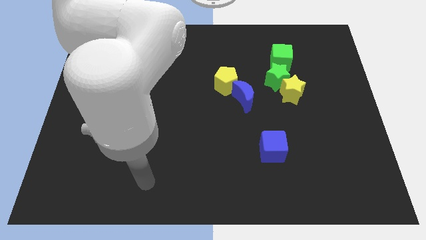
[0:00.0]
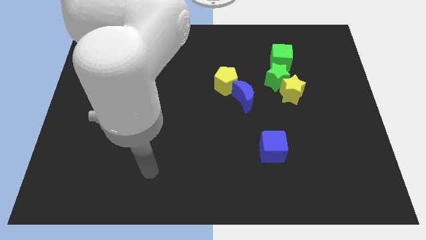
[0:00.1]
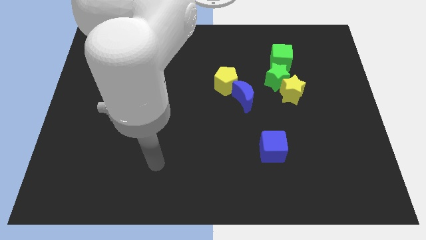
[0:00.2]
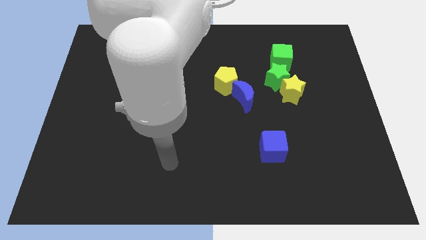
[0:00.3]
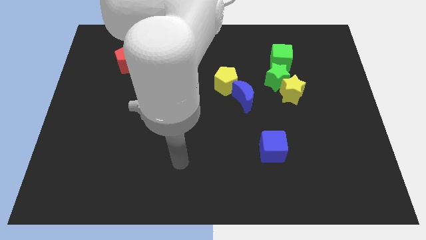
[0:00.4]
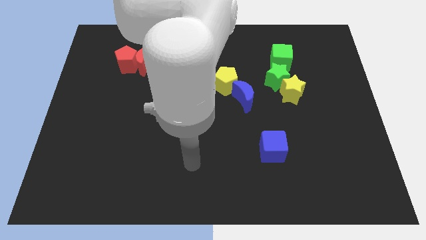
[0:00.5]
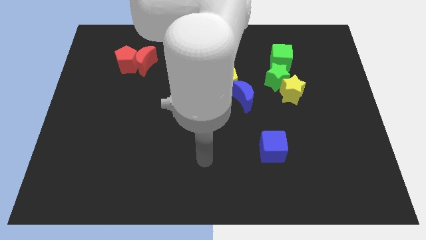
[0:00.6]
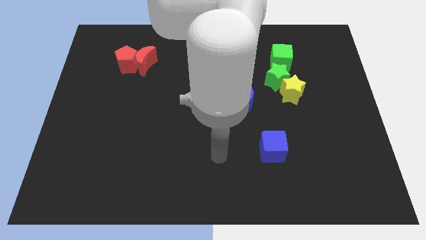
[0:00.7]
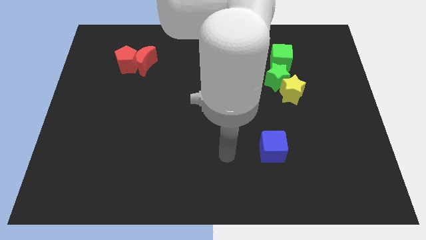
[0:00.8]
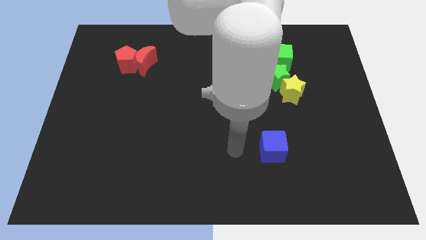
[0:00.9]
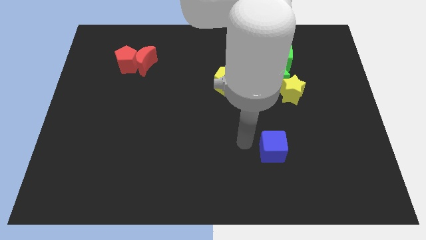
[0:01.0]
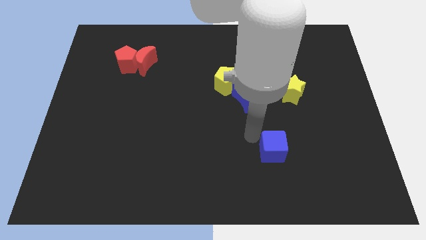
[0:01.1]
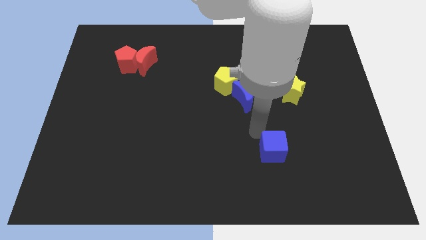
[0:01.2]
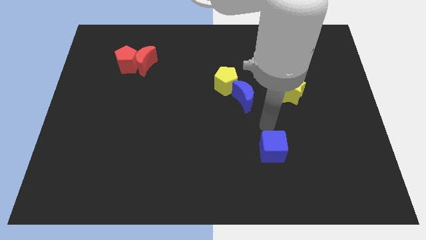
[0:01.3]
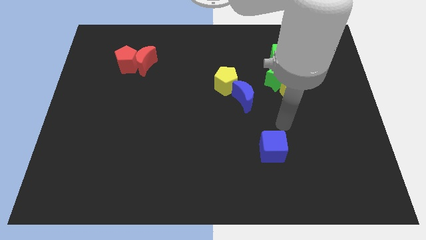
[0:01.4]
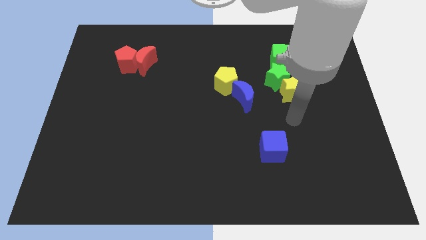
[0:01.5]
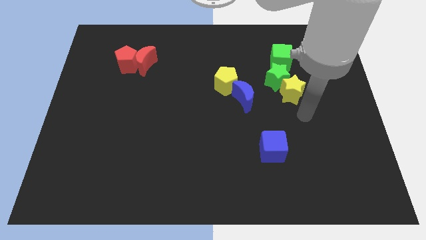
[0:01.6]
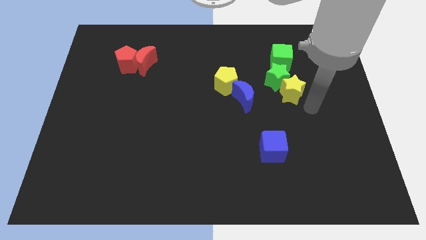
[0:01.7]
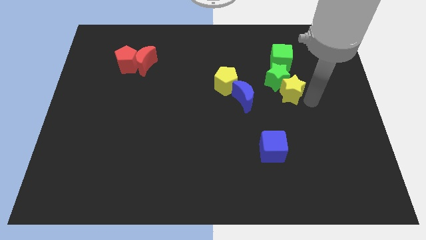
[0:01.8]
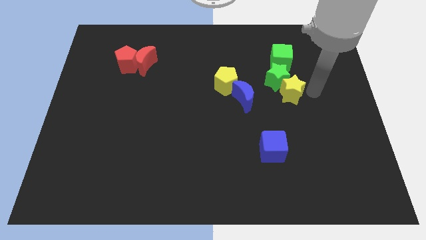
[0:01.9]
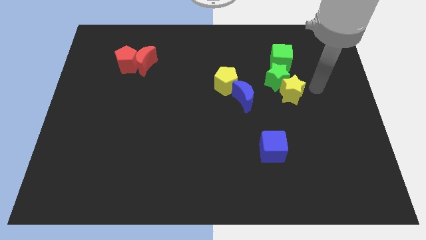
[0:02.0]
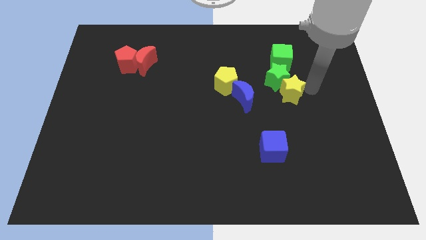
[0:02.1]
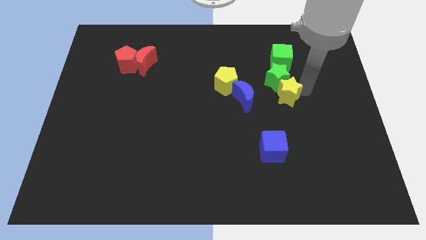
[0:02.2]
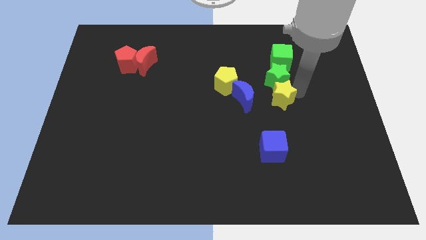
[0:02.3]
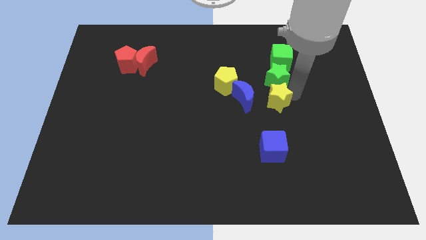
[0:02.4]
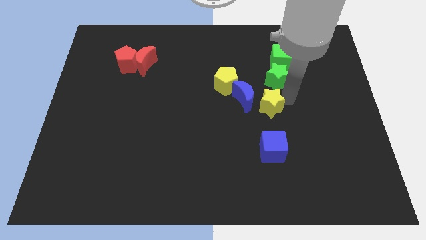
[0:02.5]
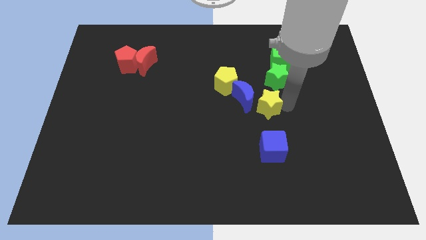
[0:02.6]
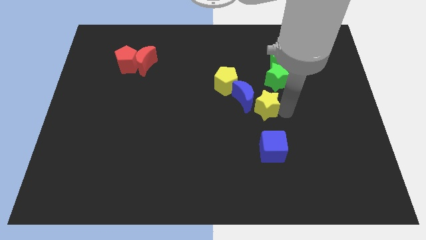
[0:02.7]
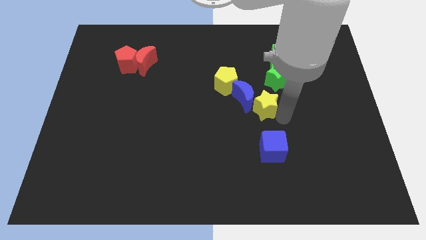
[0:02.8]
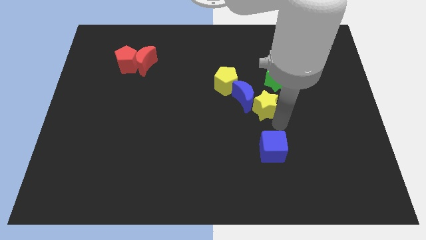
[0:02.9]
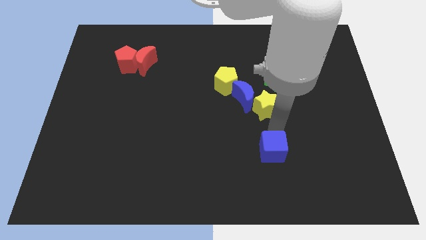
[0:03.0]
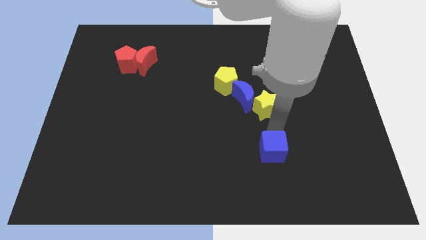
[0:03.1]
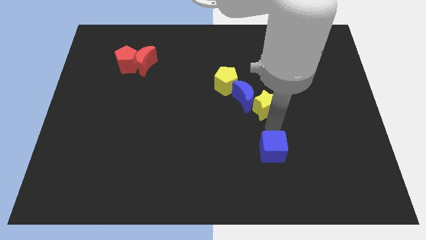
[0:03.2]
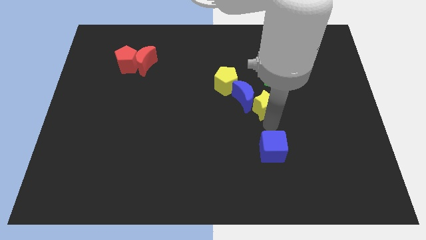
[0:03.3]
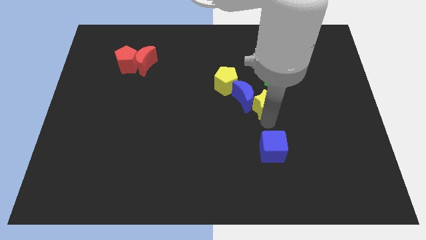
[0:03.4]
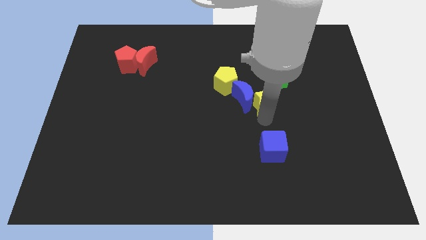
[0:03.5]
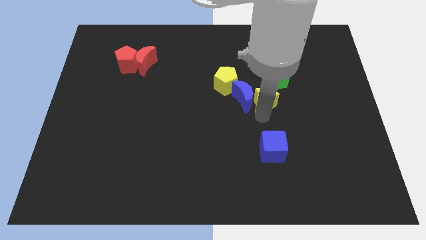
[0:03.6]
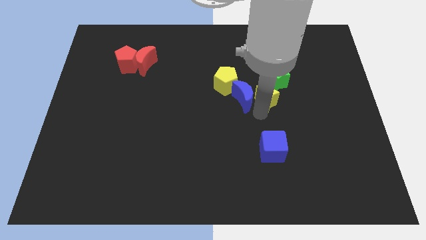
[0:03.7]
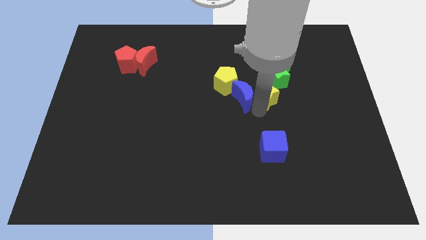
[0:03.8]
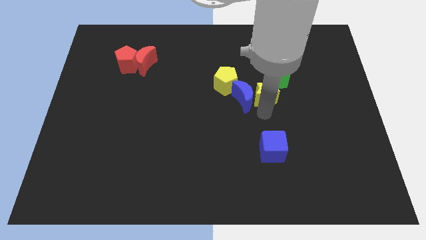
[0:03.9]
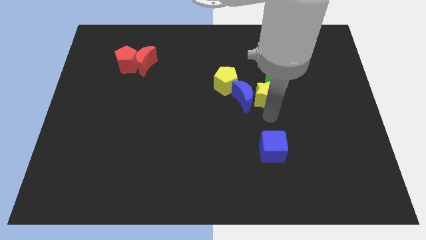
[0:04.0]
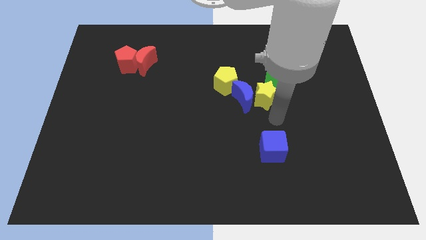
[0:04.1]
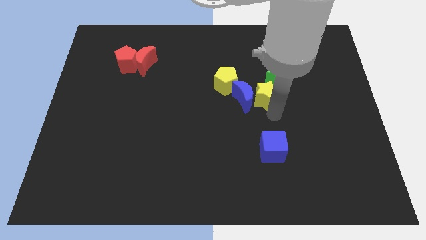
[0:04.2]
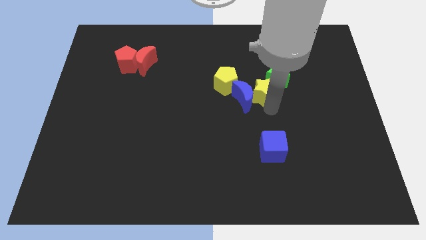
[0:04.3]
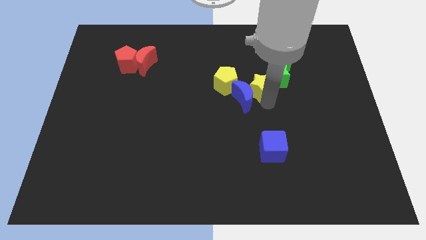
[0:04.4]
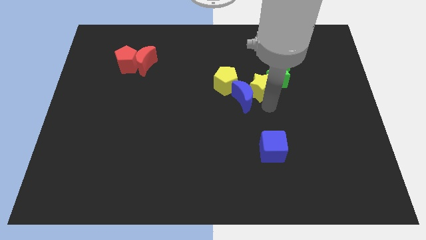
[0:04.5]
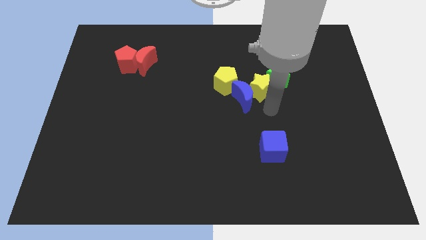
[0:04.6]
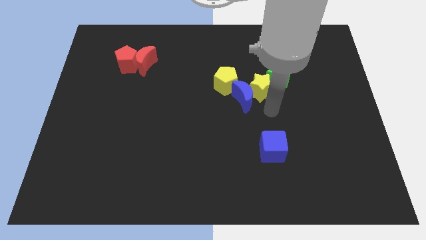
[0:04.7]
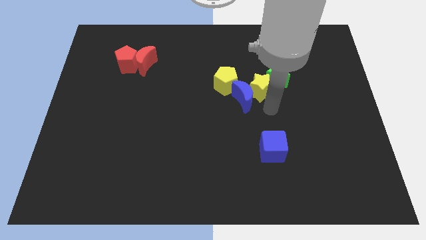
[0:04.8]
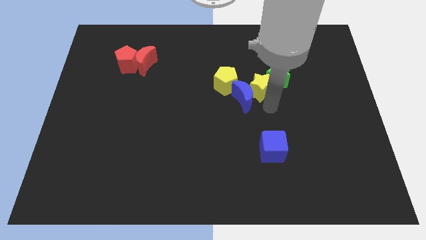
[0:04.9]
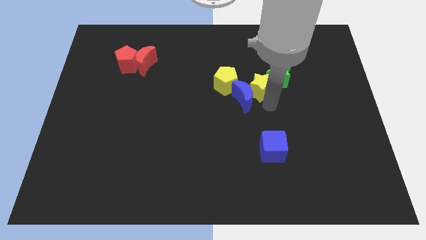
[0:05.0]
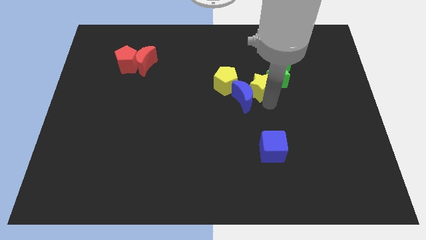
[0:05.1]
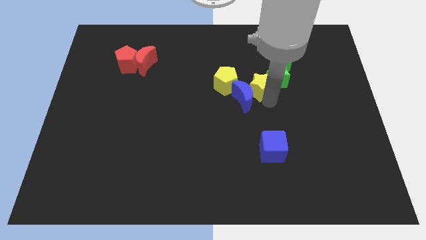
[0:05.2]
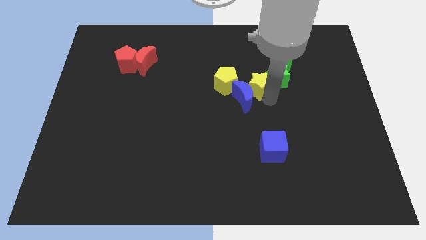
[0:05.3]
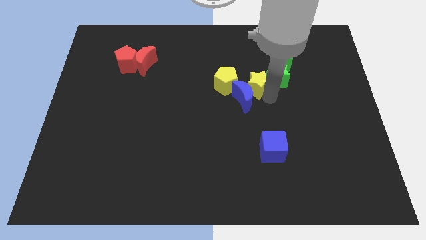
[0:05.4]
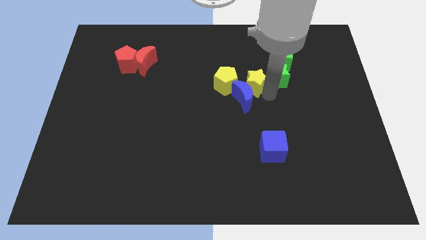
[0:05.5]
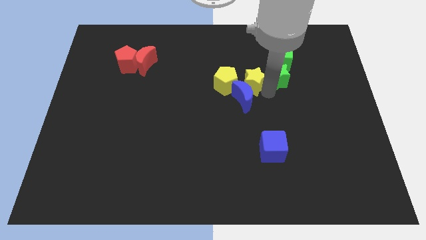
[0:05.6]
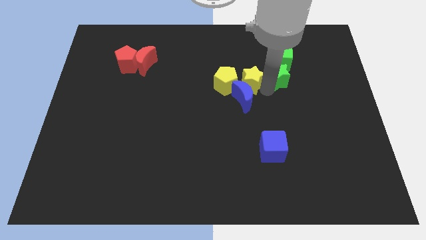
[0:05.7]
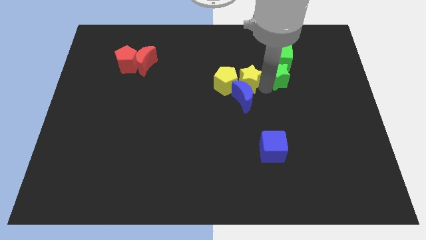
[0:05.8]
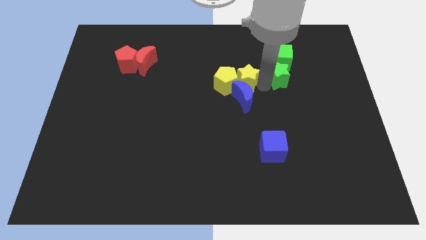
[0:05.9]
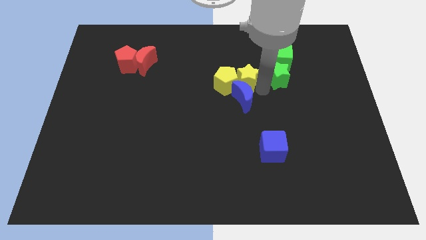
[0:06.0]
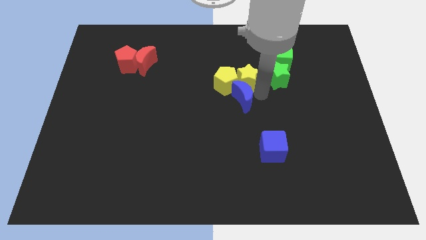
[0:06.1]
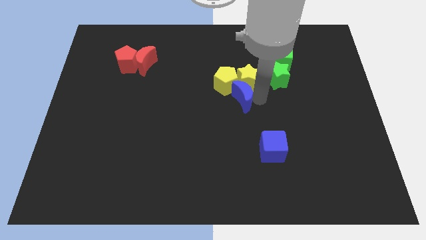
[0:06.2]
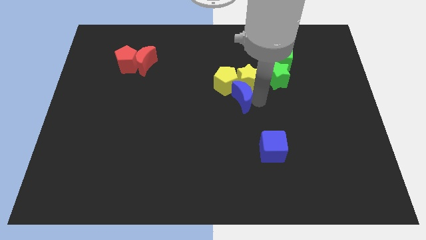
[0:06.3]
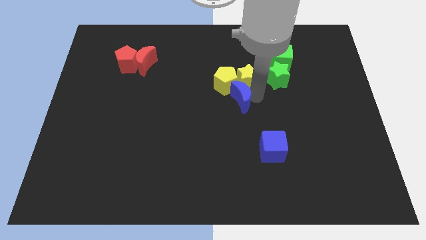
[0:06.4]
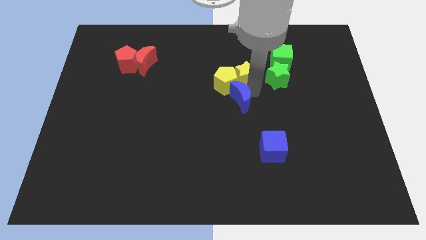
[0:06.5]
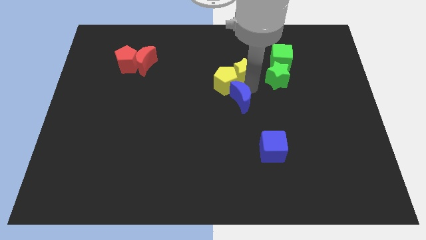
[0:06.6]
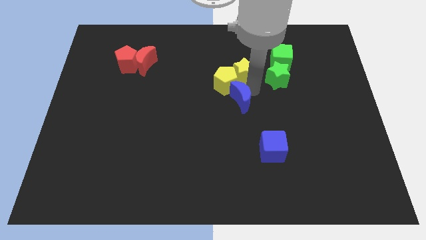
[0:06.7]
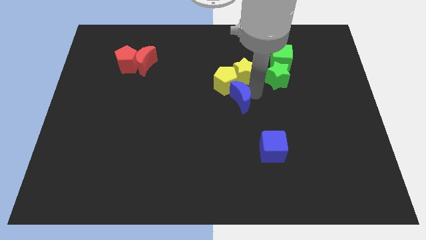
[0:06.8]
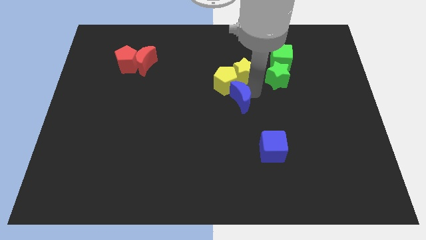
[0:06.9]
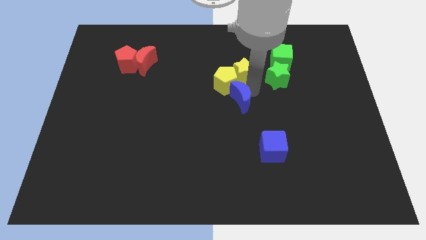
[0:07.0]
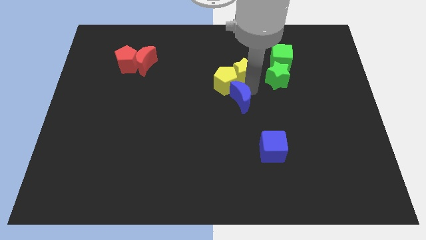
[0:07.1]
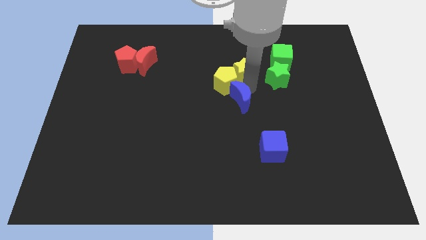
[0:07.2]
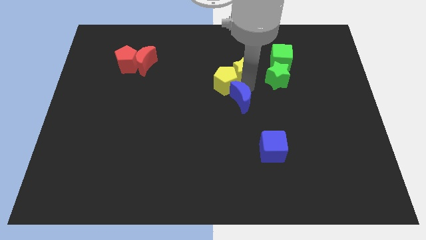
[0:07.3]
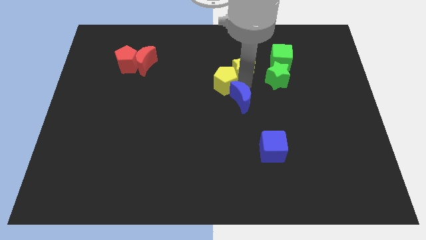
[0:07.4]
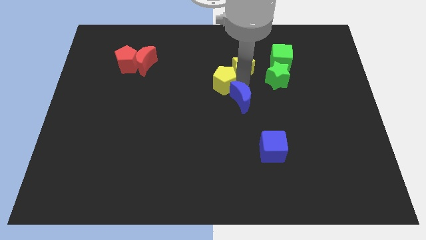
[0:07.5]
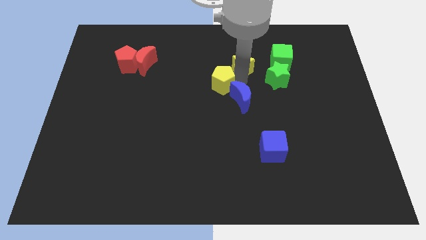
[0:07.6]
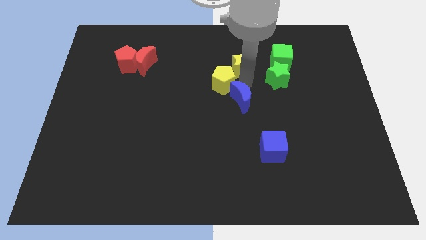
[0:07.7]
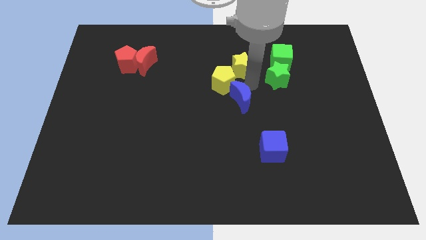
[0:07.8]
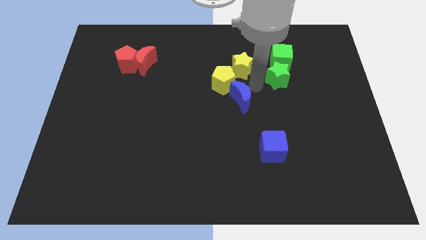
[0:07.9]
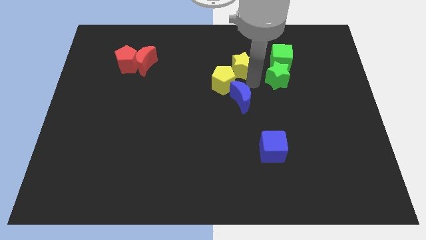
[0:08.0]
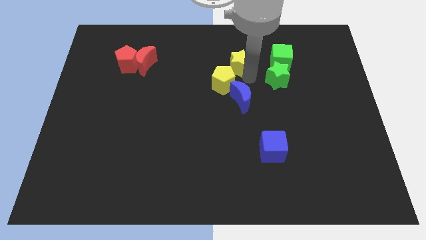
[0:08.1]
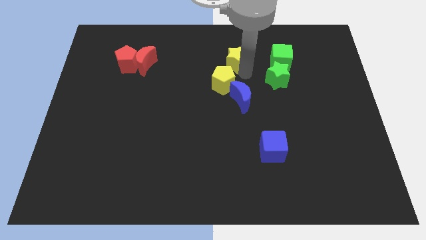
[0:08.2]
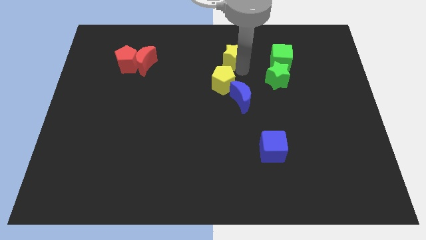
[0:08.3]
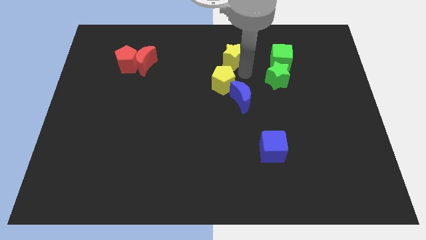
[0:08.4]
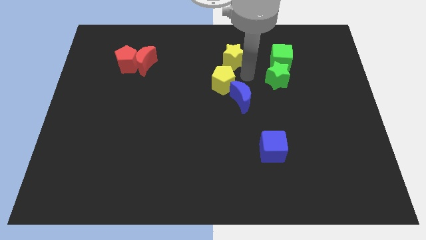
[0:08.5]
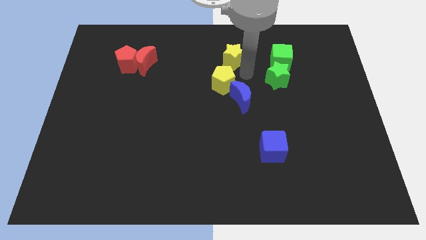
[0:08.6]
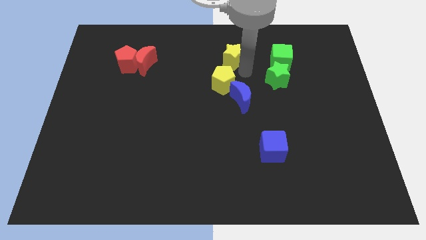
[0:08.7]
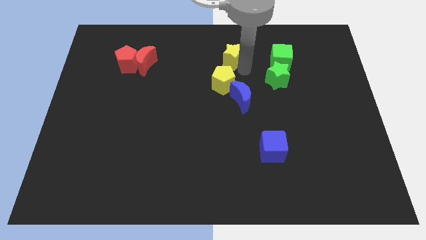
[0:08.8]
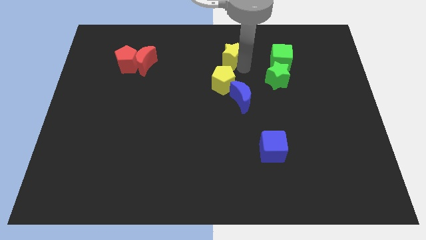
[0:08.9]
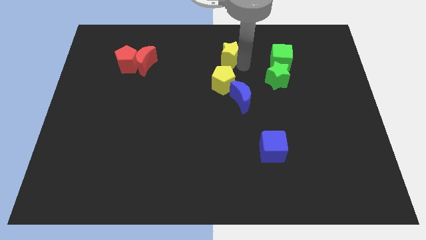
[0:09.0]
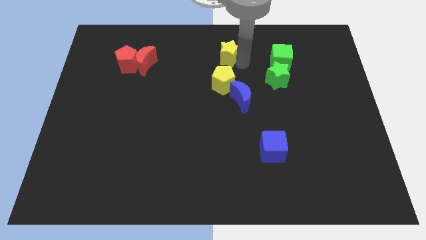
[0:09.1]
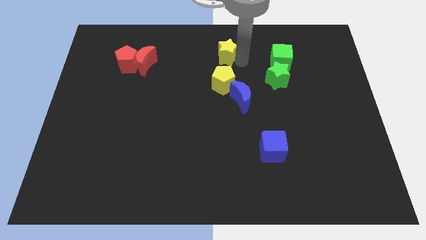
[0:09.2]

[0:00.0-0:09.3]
push the yellow star to the towards your base
